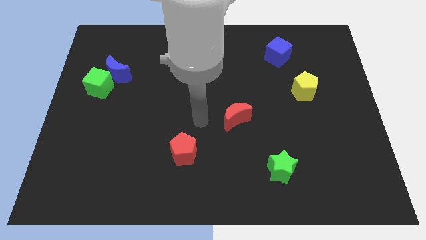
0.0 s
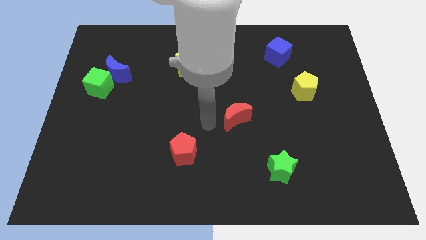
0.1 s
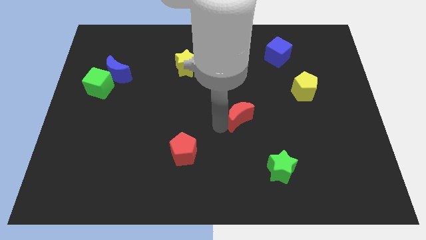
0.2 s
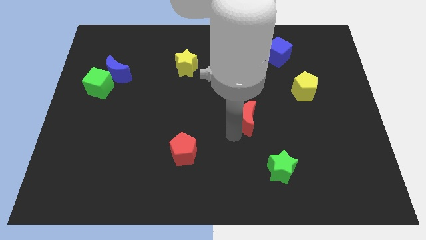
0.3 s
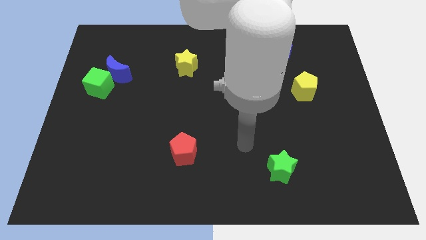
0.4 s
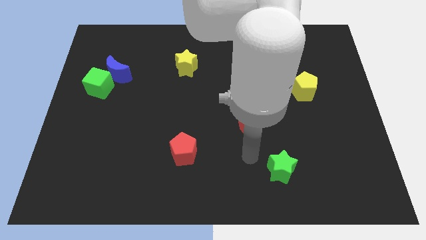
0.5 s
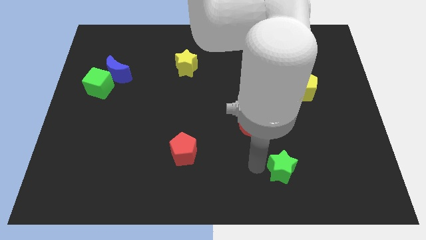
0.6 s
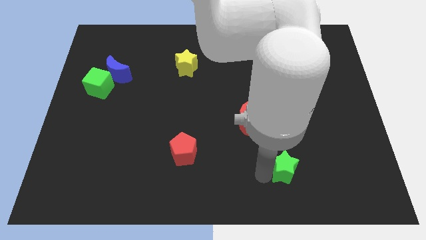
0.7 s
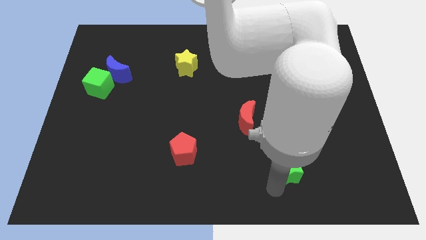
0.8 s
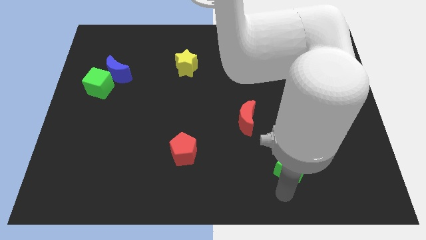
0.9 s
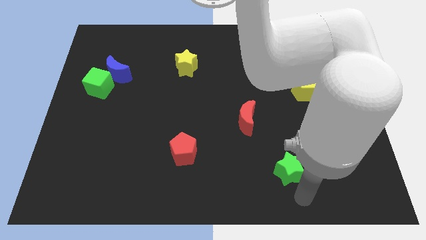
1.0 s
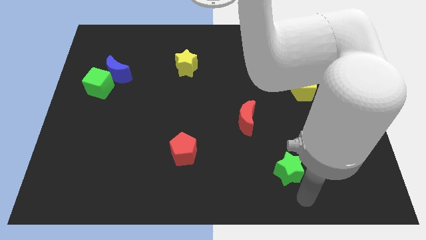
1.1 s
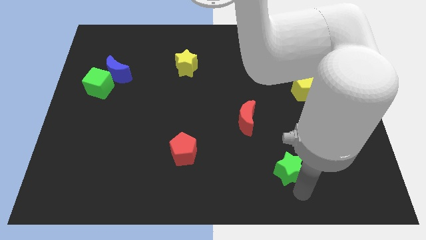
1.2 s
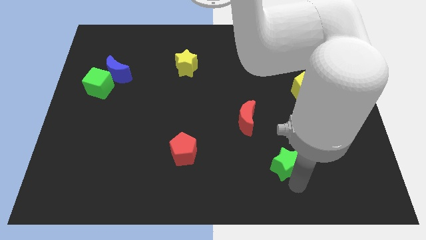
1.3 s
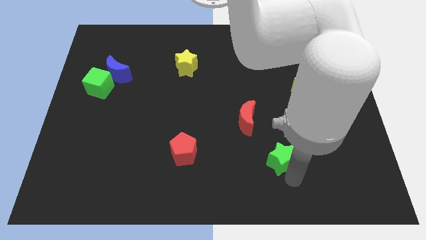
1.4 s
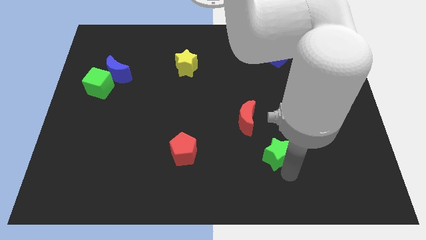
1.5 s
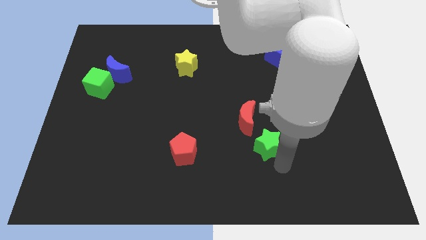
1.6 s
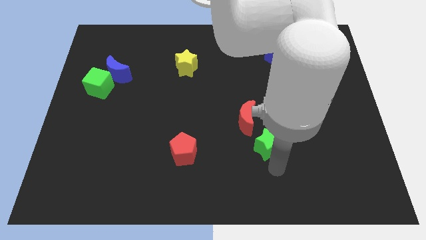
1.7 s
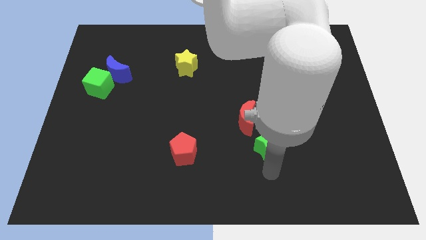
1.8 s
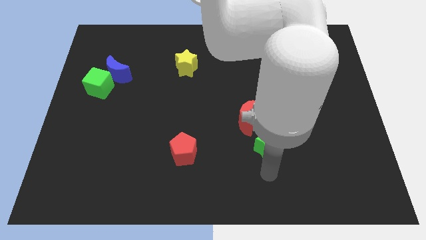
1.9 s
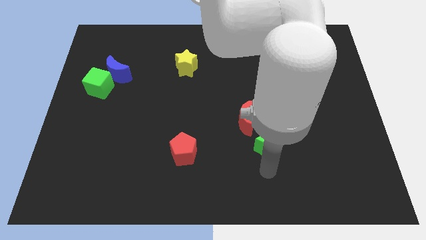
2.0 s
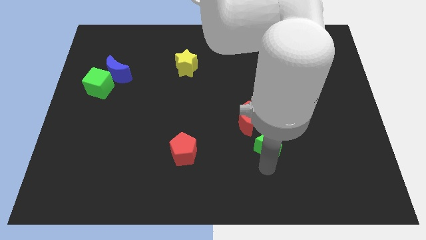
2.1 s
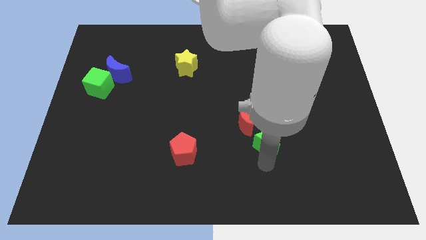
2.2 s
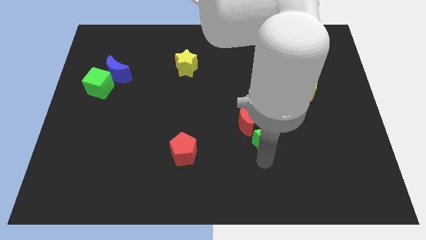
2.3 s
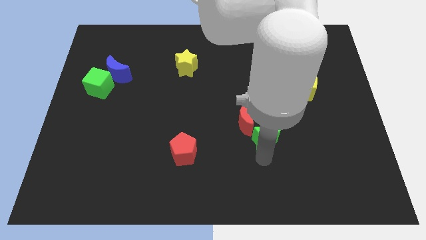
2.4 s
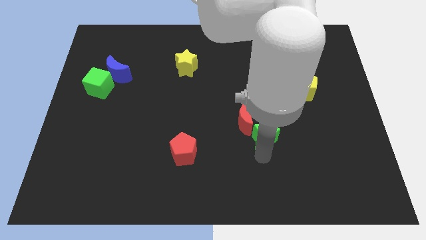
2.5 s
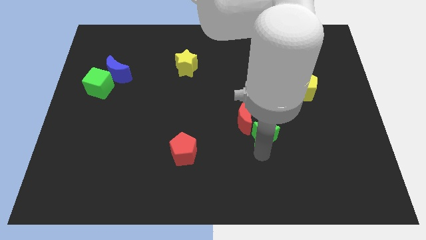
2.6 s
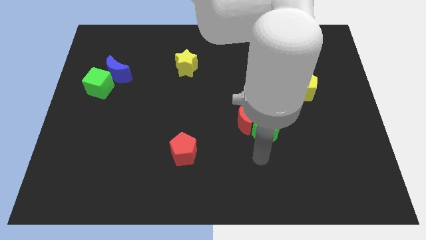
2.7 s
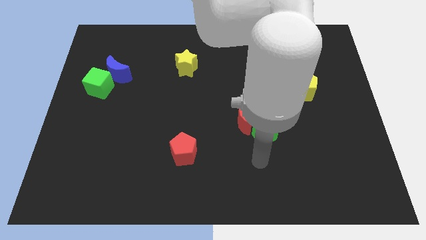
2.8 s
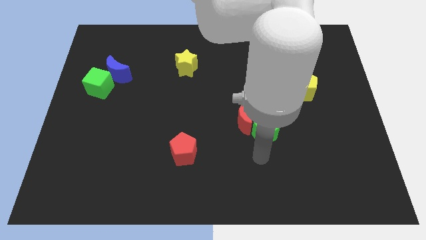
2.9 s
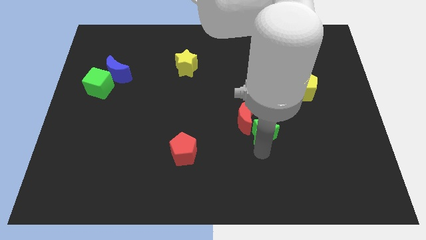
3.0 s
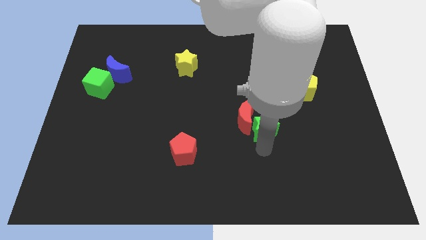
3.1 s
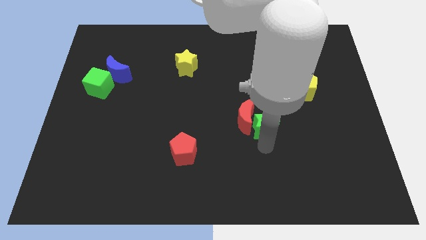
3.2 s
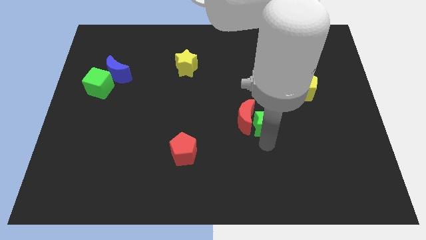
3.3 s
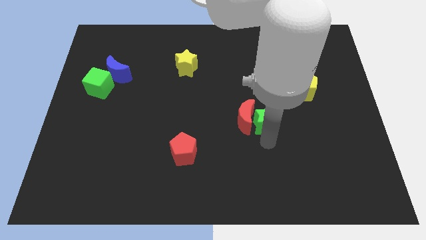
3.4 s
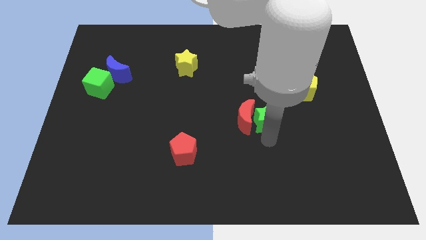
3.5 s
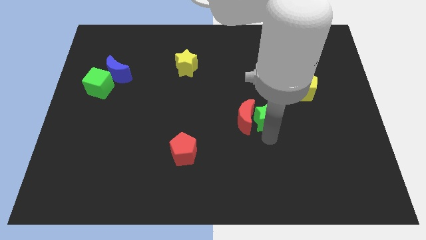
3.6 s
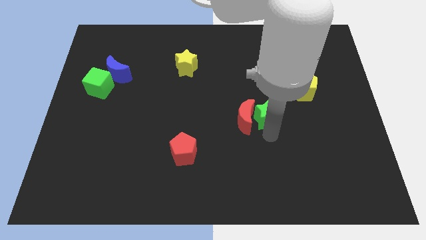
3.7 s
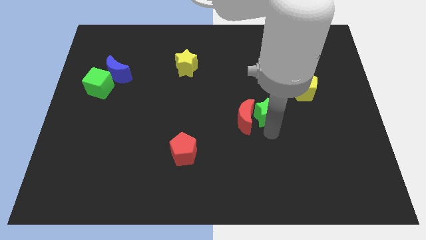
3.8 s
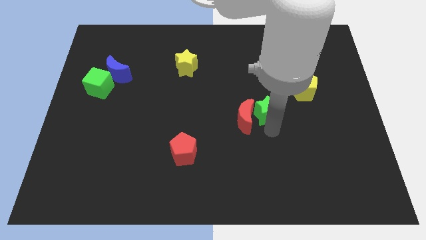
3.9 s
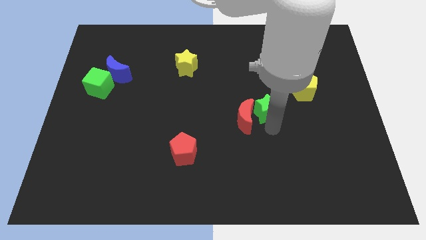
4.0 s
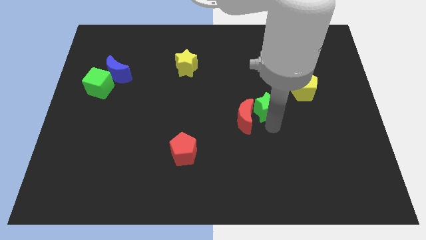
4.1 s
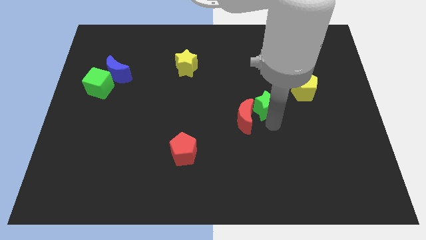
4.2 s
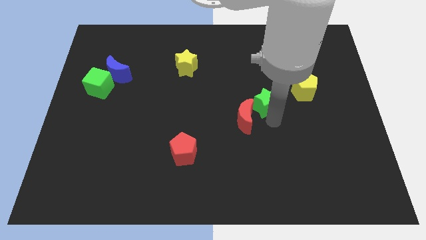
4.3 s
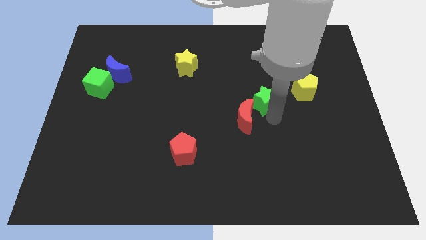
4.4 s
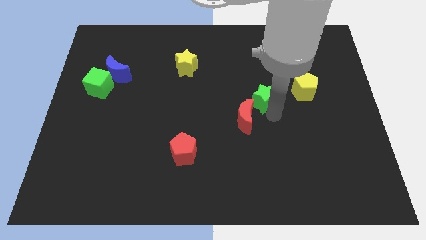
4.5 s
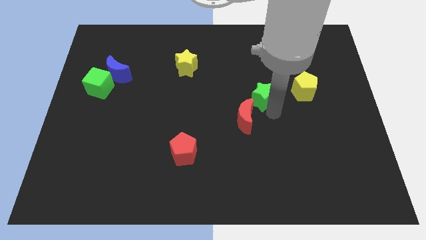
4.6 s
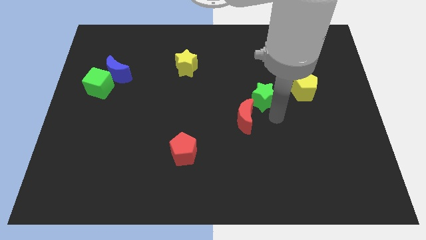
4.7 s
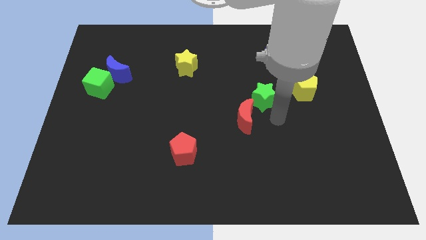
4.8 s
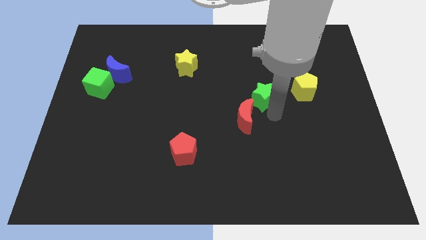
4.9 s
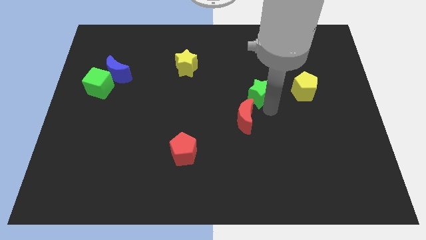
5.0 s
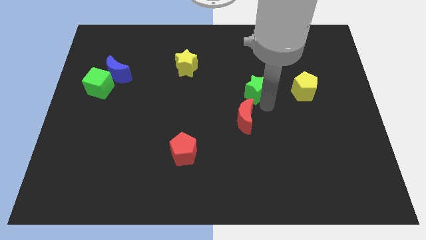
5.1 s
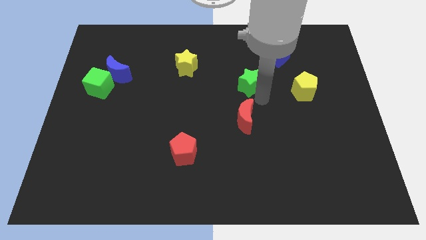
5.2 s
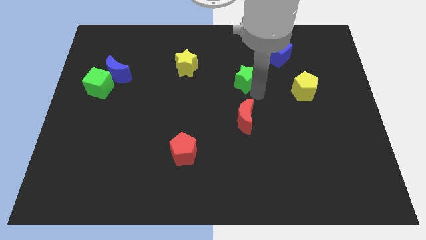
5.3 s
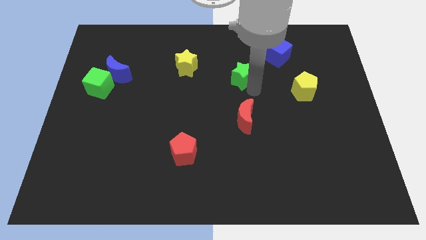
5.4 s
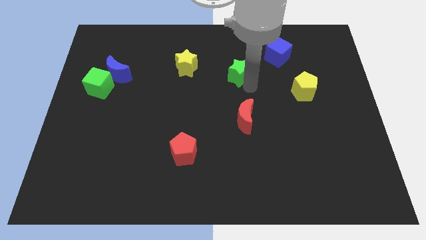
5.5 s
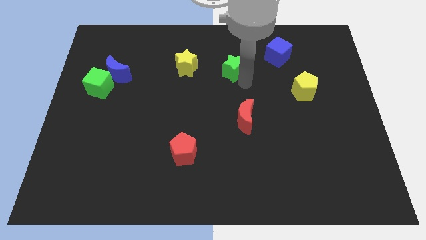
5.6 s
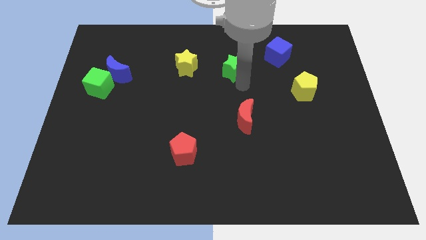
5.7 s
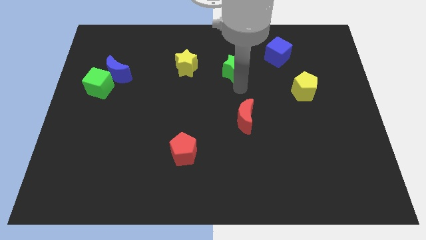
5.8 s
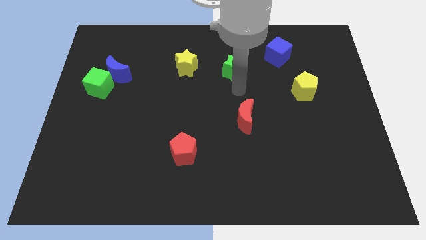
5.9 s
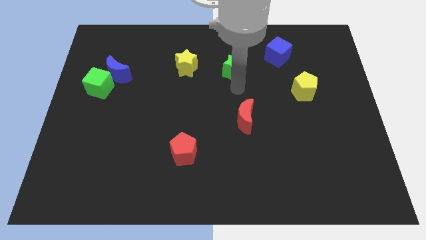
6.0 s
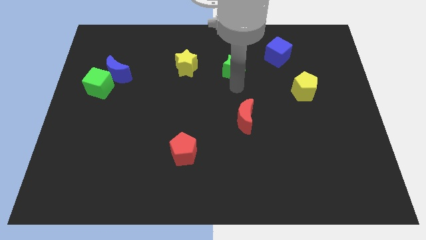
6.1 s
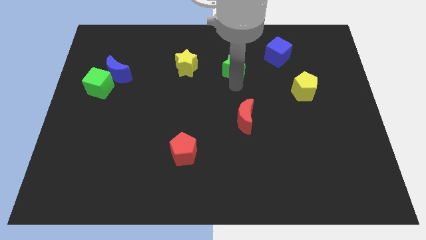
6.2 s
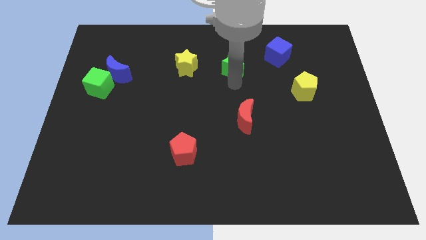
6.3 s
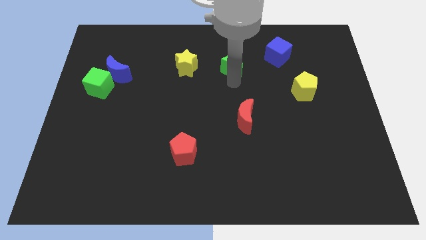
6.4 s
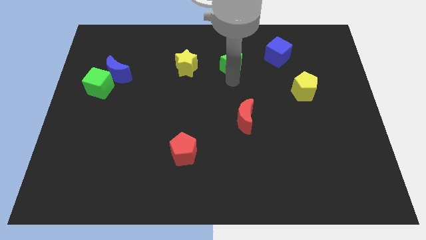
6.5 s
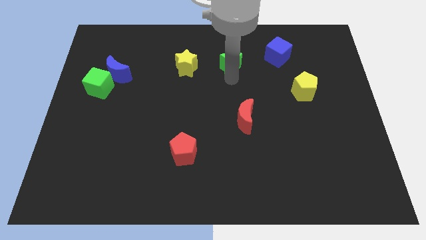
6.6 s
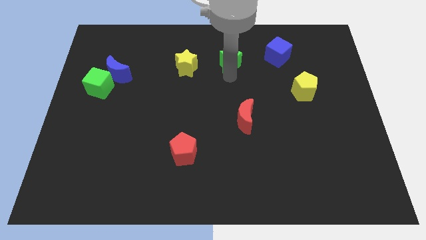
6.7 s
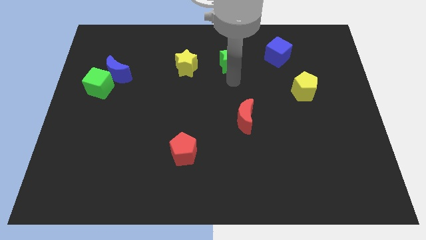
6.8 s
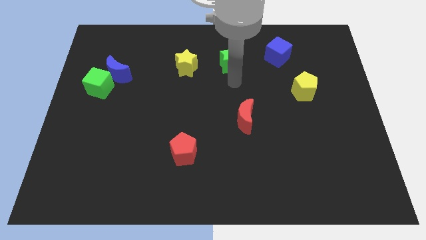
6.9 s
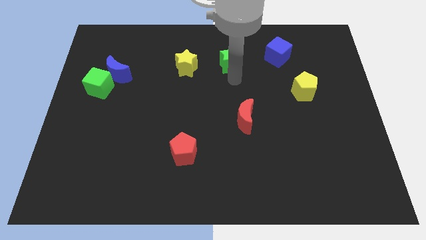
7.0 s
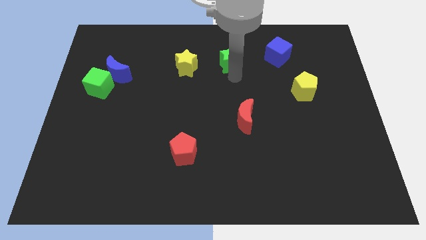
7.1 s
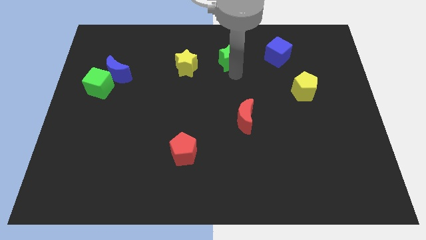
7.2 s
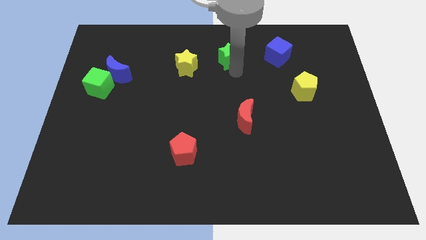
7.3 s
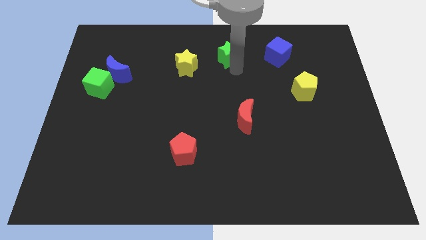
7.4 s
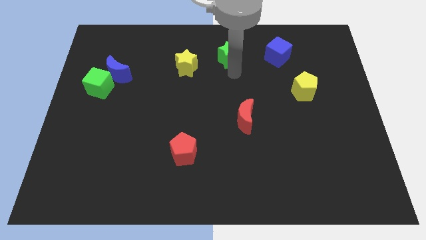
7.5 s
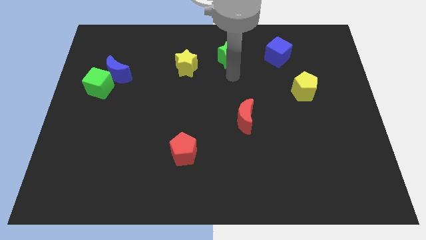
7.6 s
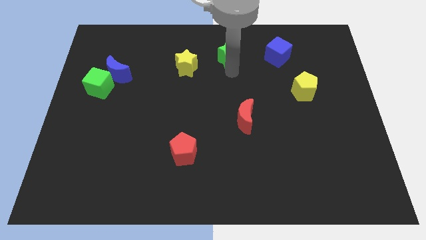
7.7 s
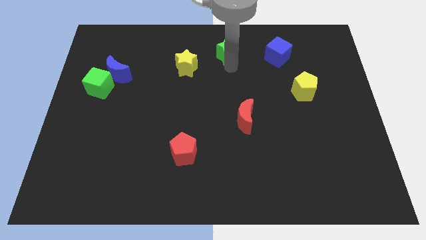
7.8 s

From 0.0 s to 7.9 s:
push the green star to the towards your base
